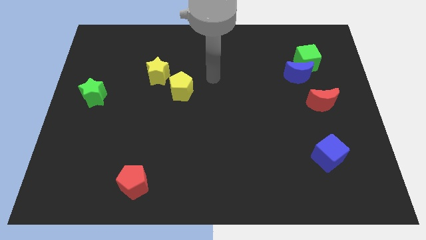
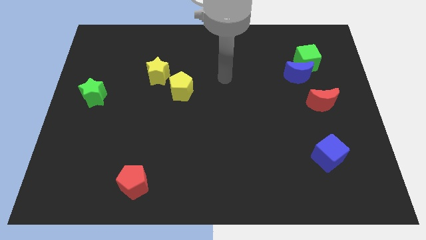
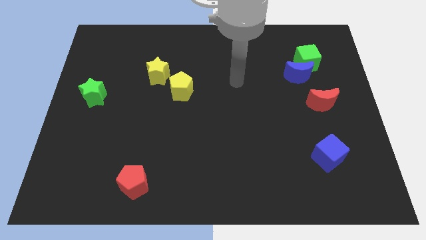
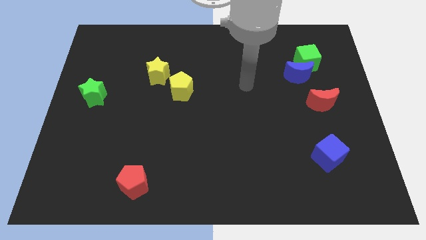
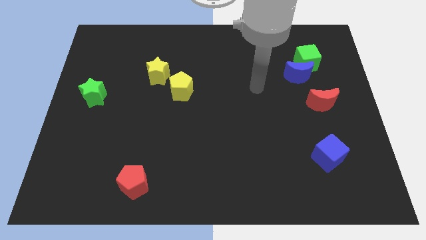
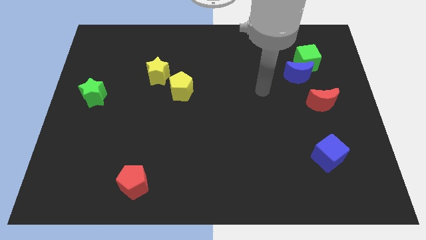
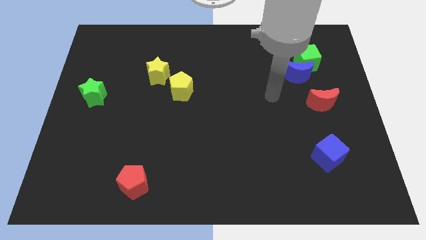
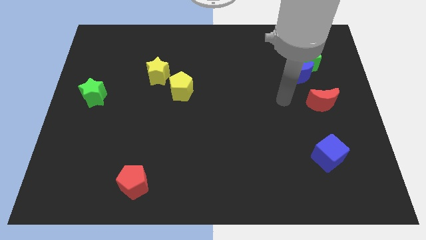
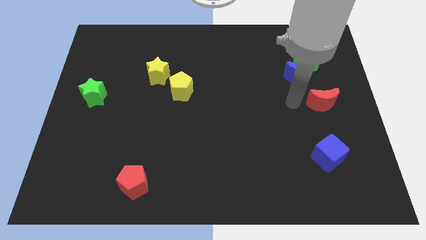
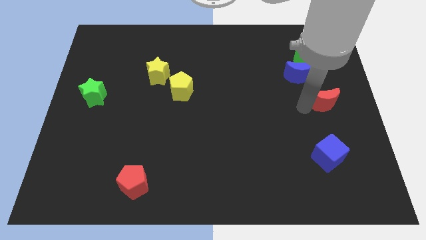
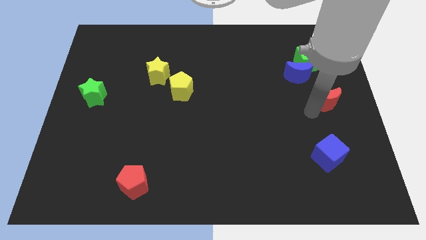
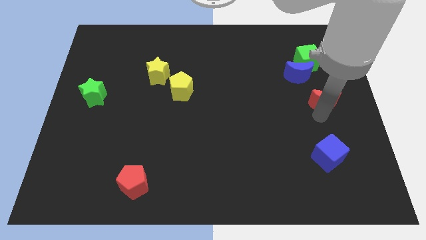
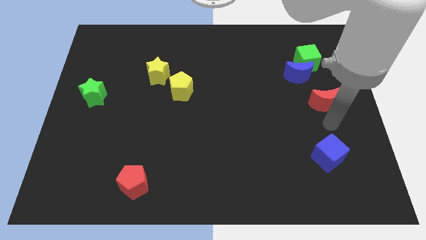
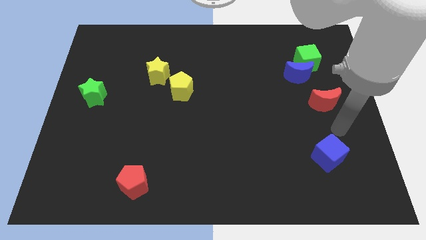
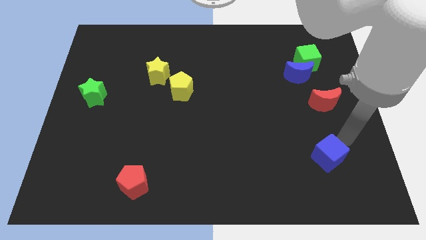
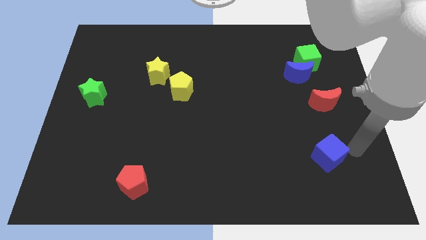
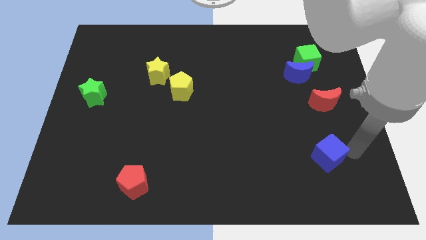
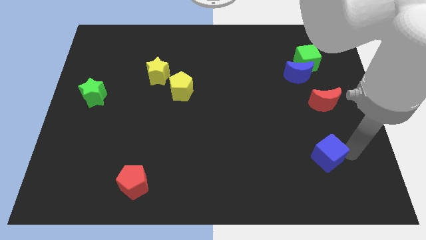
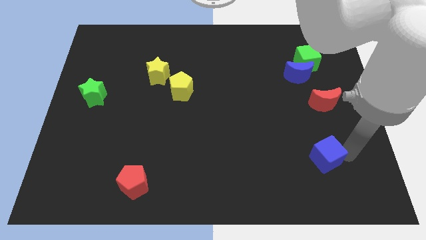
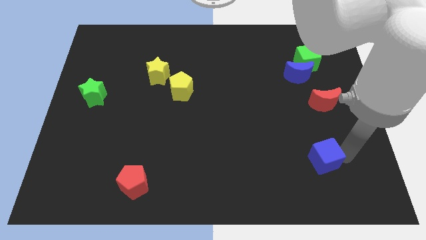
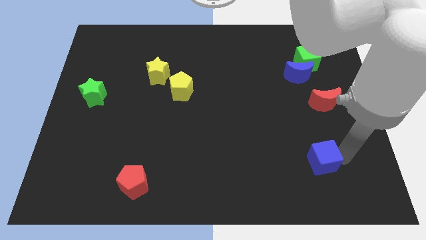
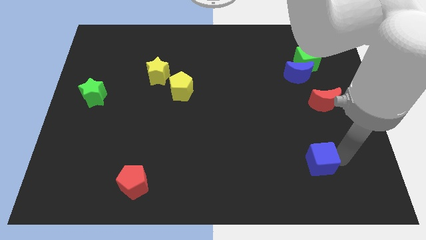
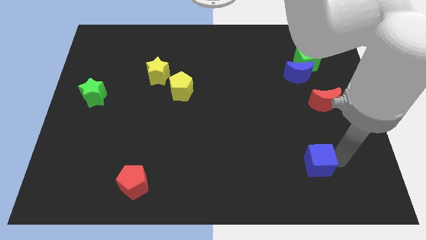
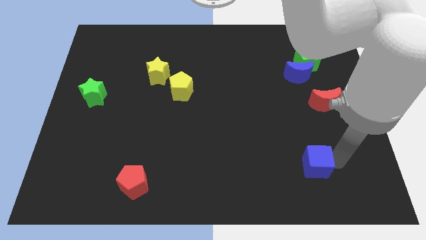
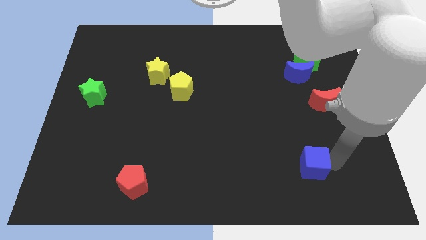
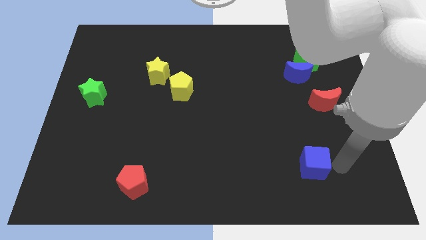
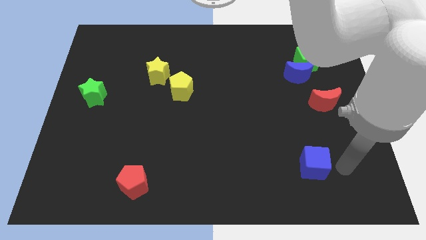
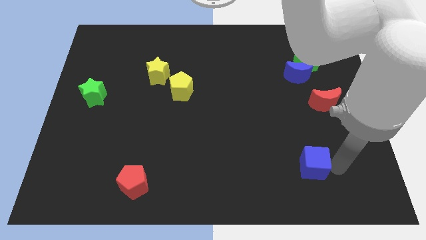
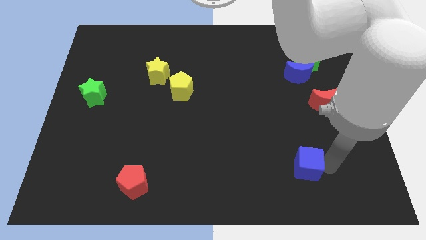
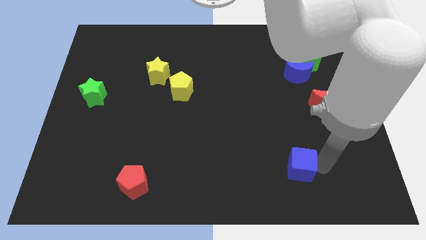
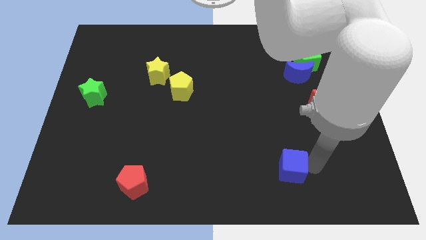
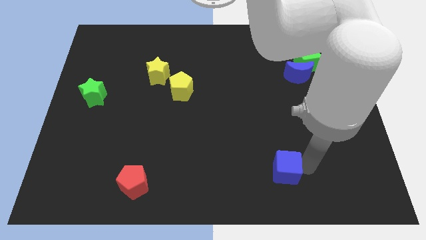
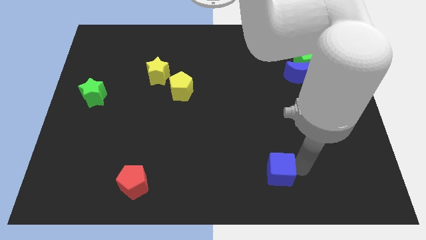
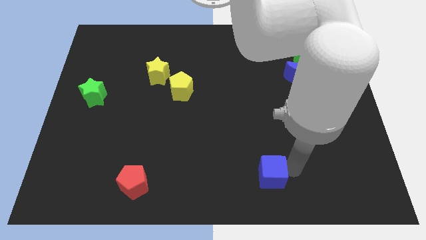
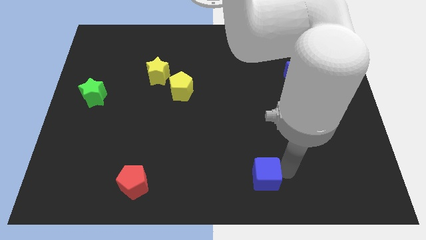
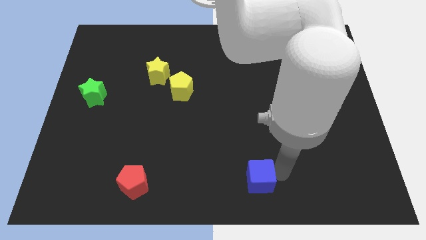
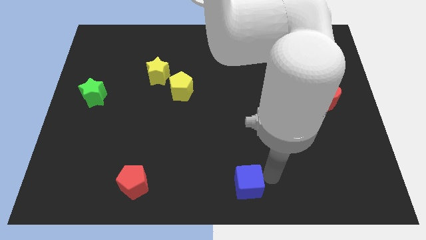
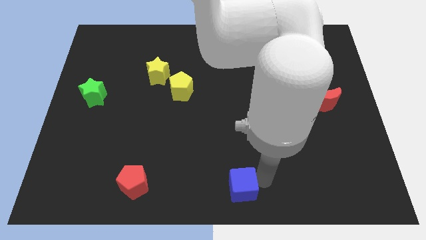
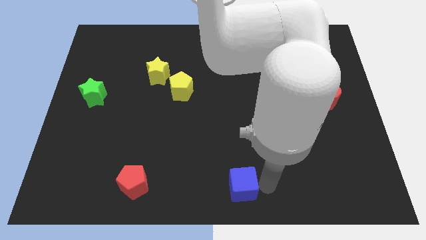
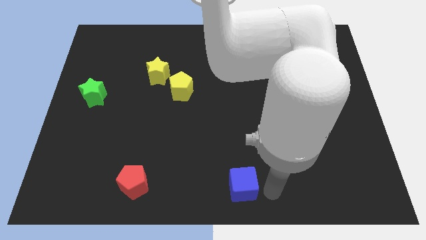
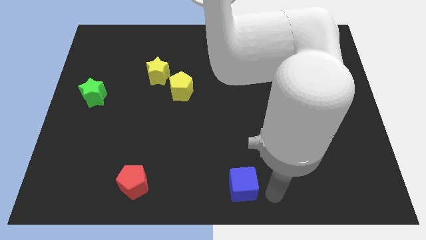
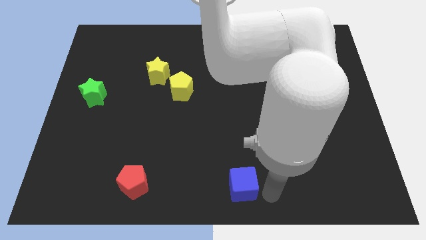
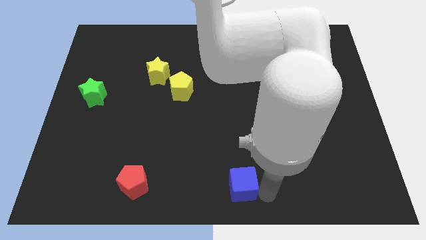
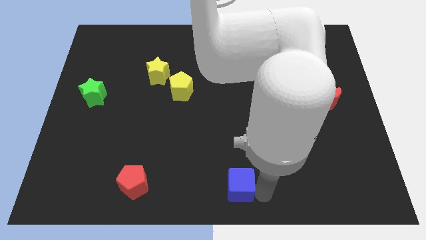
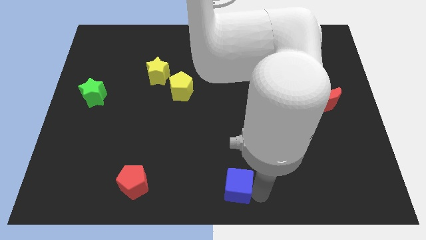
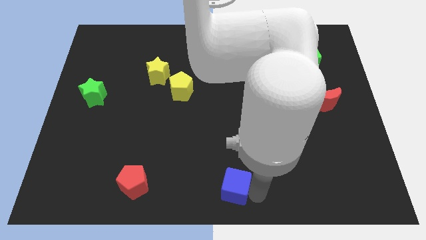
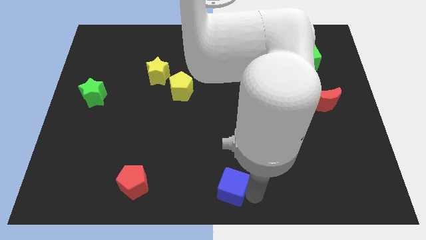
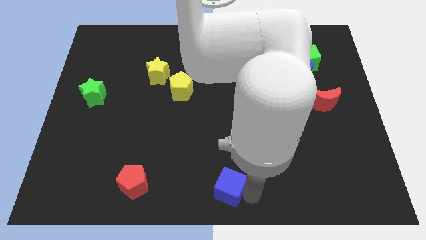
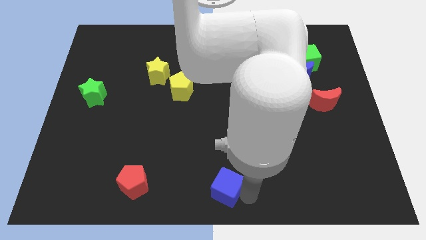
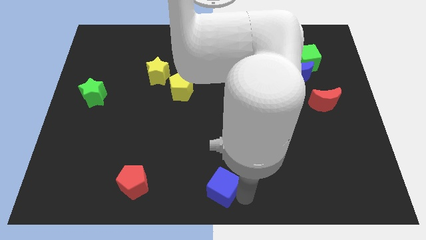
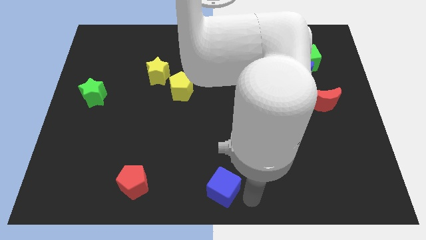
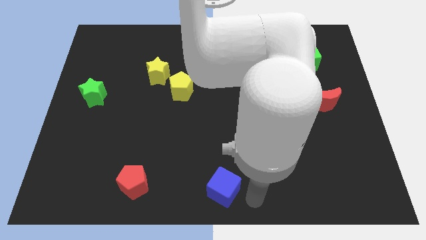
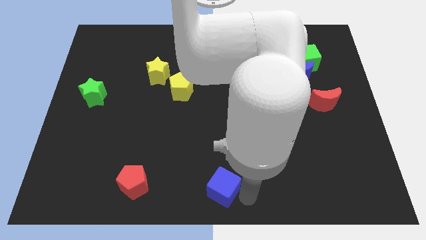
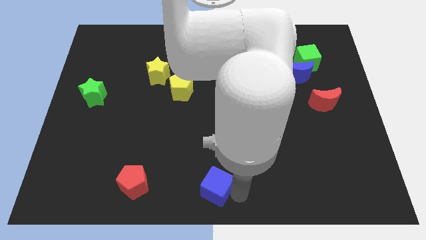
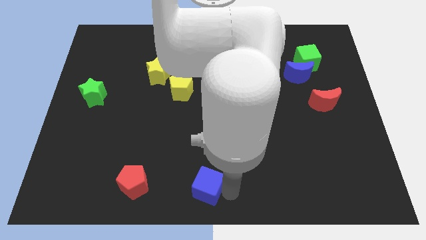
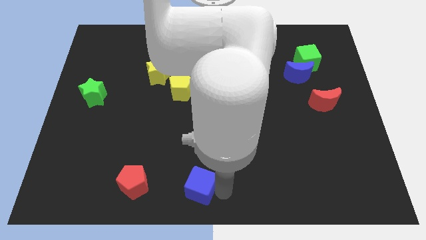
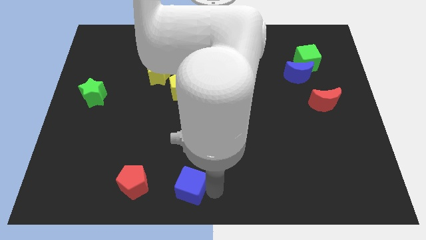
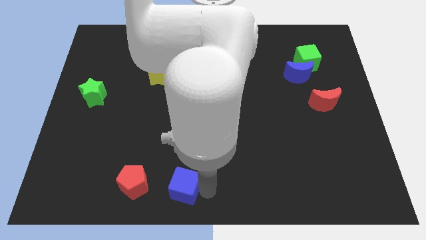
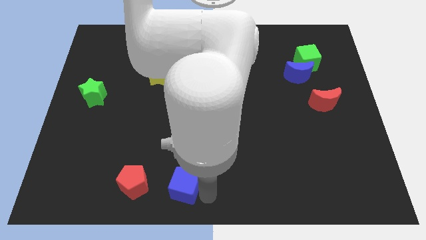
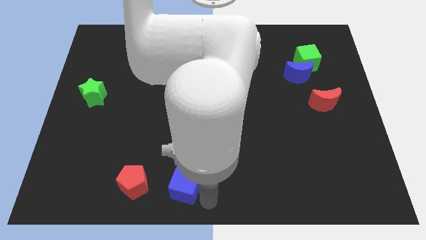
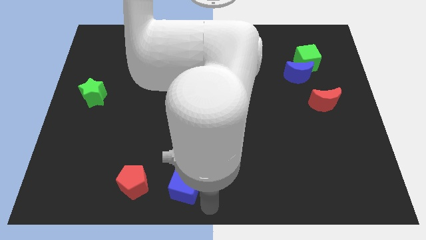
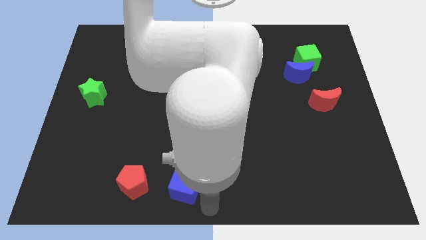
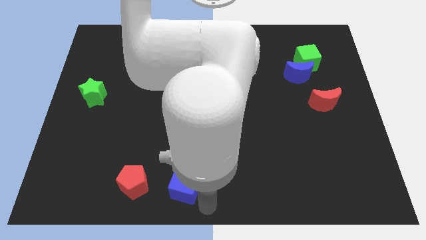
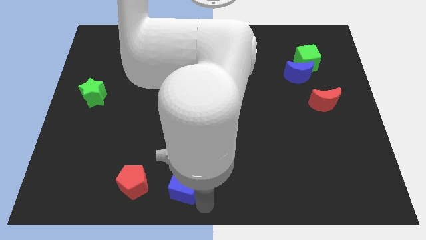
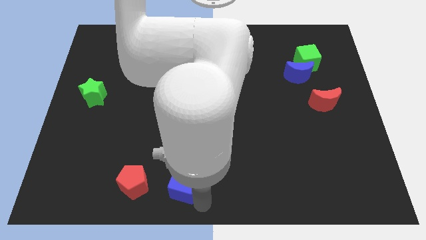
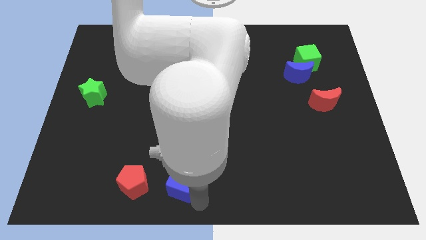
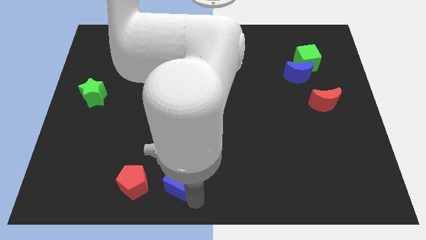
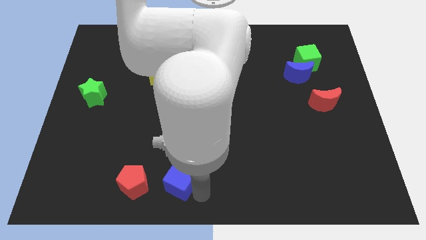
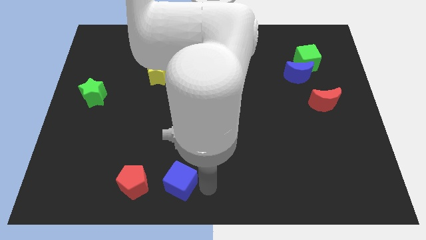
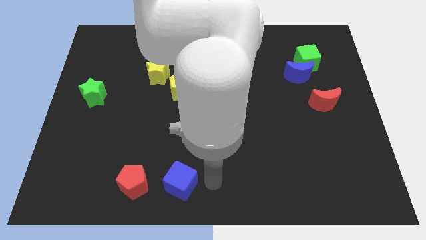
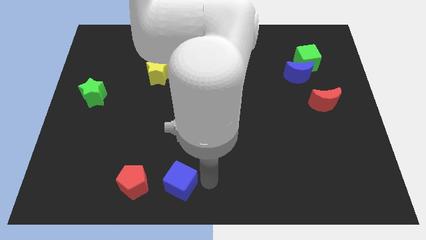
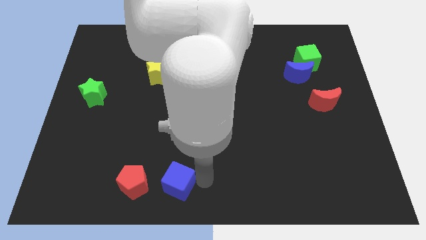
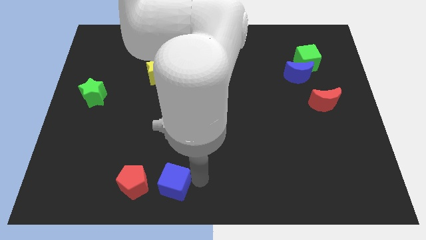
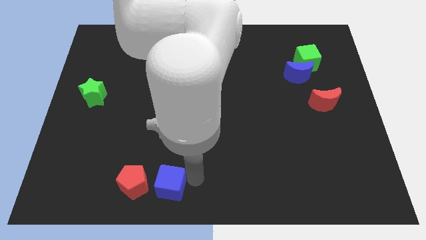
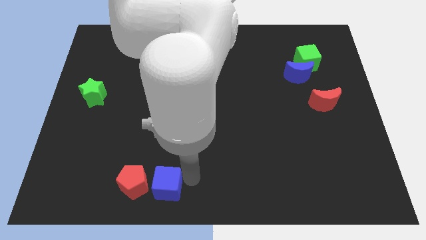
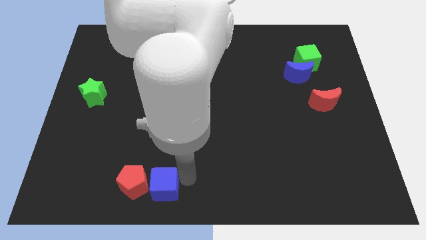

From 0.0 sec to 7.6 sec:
put the blue cube next to the red pentagon
